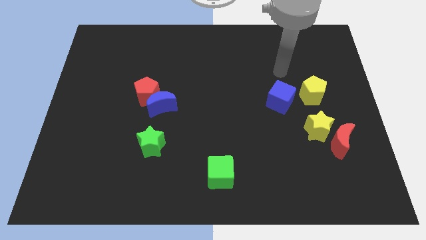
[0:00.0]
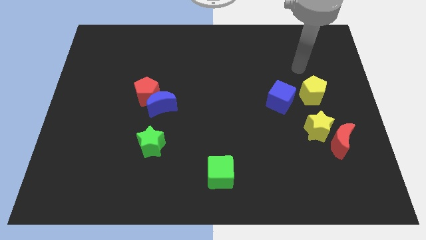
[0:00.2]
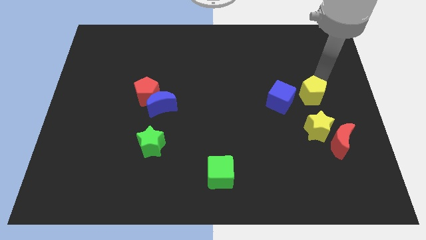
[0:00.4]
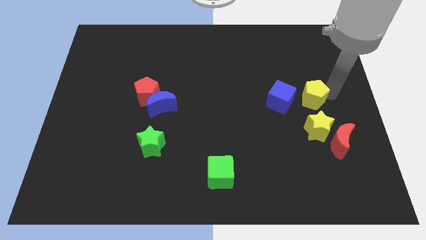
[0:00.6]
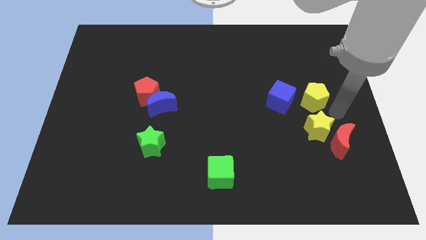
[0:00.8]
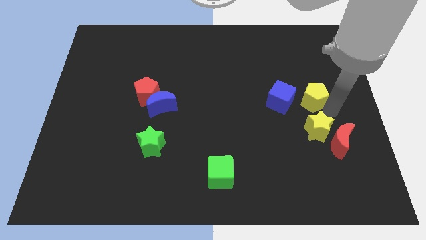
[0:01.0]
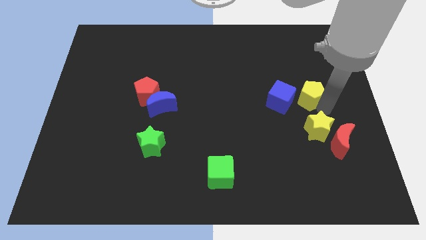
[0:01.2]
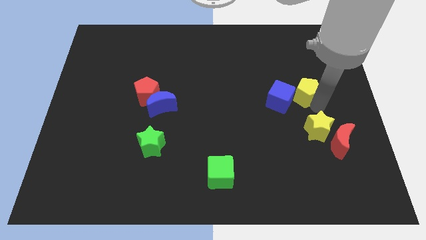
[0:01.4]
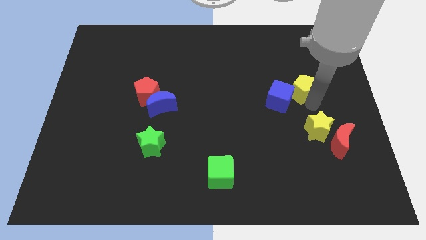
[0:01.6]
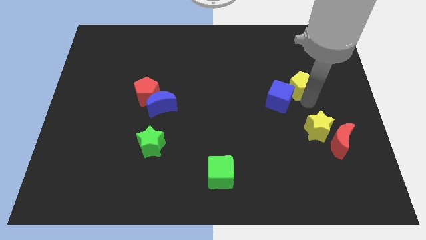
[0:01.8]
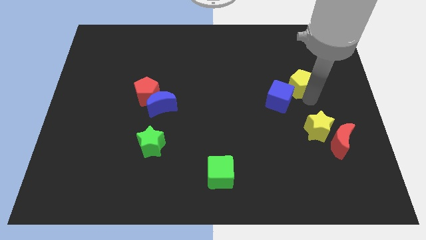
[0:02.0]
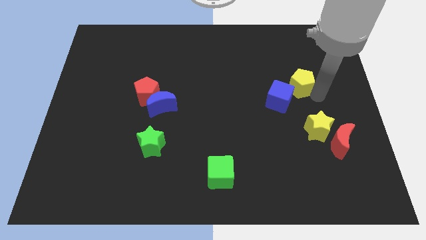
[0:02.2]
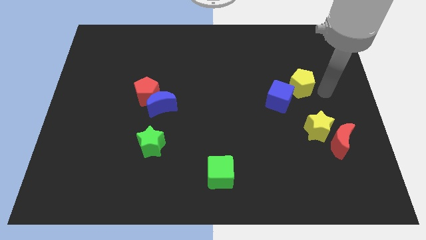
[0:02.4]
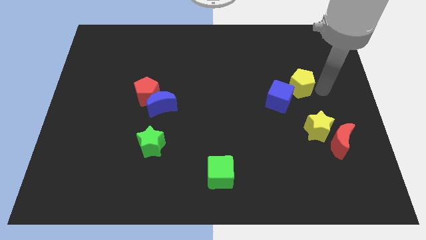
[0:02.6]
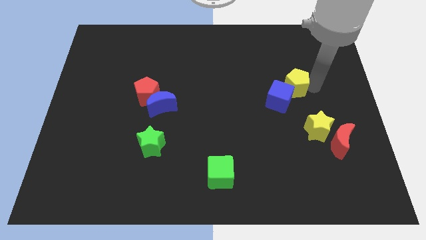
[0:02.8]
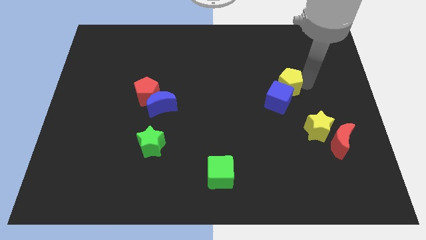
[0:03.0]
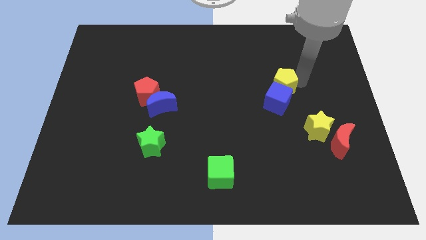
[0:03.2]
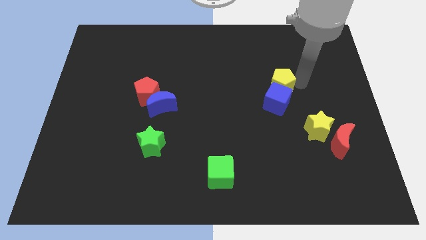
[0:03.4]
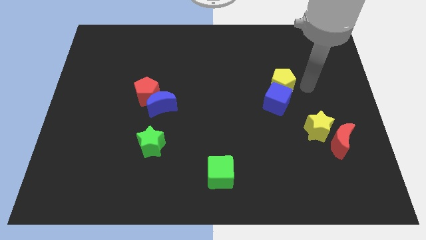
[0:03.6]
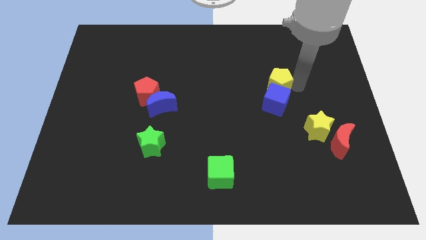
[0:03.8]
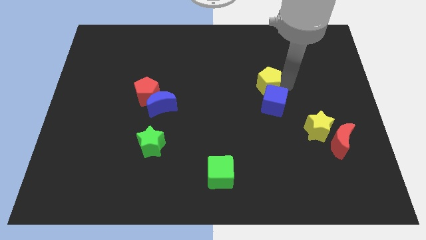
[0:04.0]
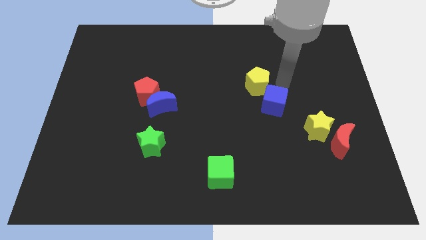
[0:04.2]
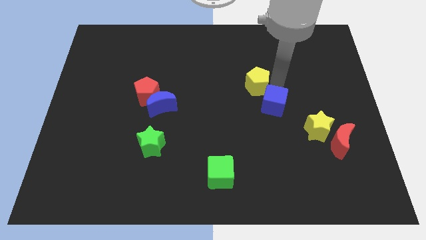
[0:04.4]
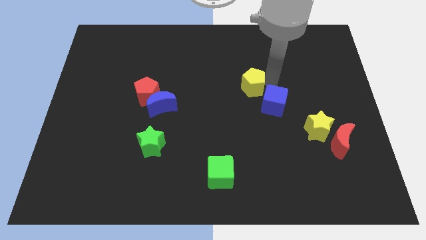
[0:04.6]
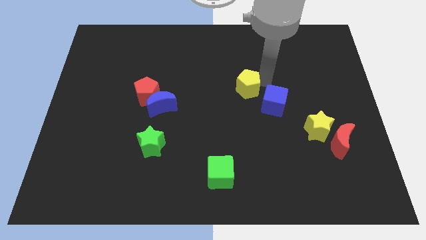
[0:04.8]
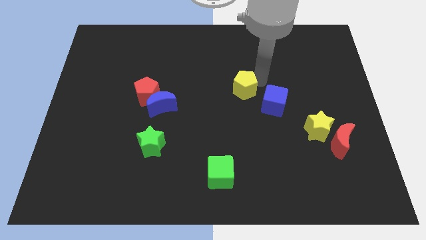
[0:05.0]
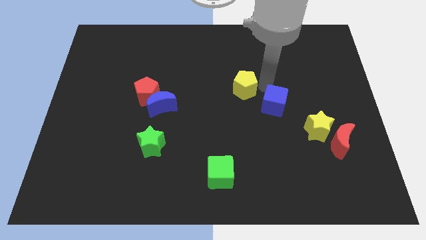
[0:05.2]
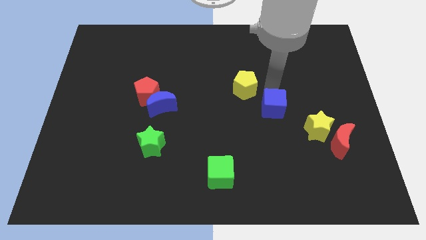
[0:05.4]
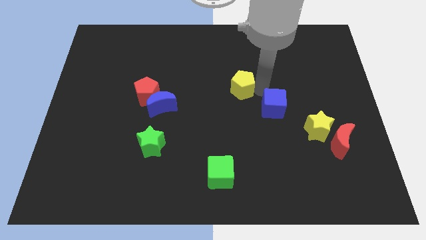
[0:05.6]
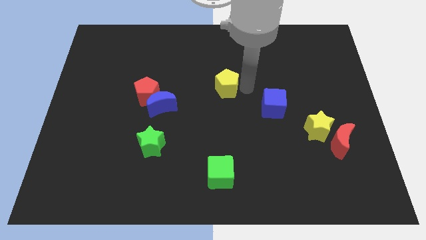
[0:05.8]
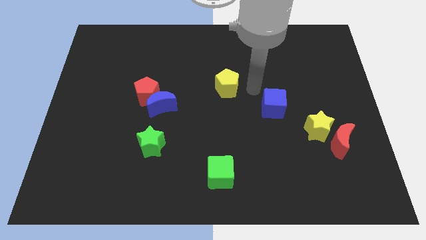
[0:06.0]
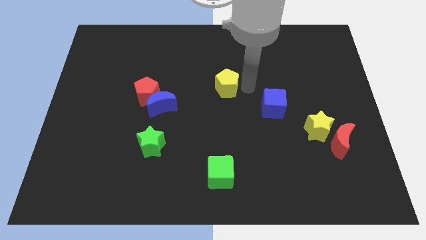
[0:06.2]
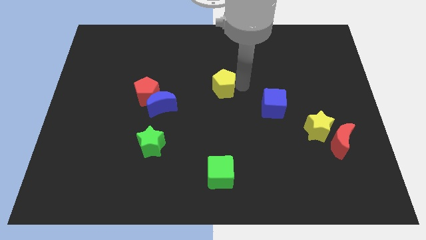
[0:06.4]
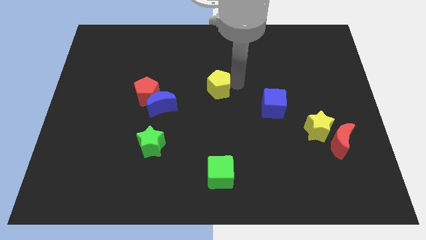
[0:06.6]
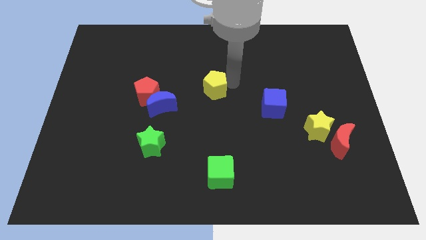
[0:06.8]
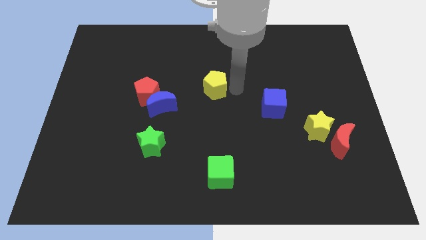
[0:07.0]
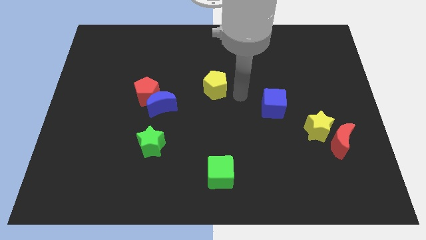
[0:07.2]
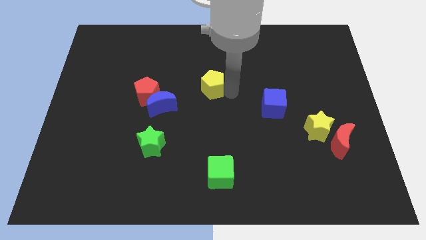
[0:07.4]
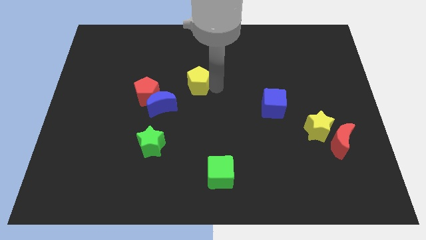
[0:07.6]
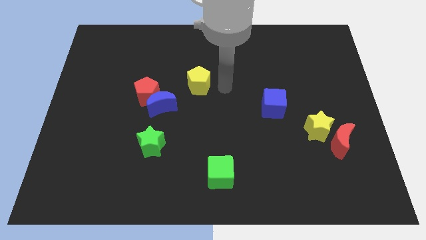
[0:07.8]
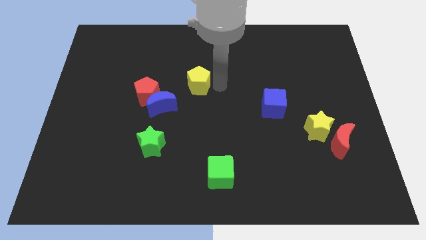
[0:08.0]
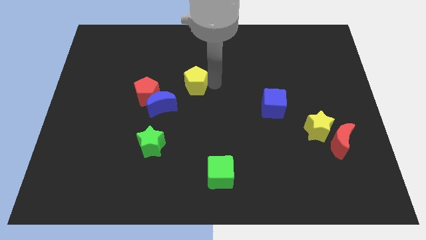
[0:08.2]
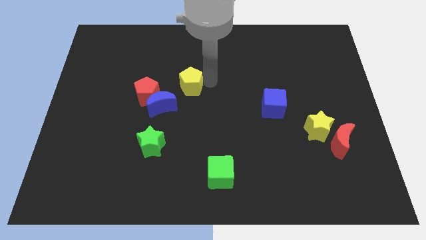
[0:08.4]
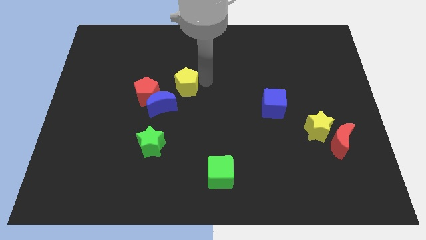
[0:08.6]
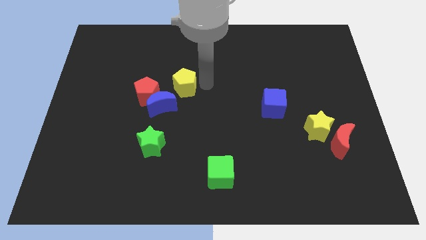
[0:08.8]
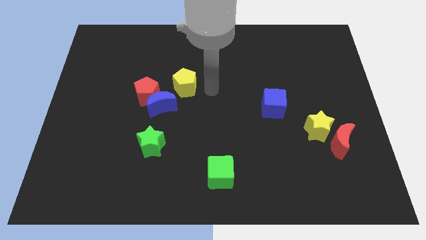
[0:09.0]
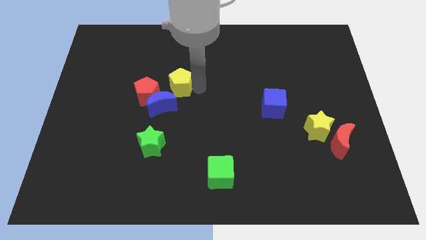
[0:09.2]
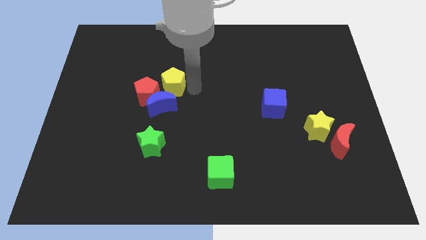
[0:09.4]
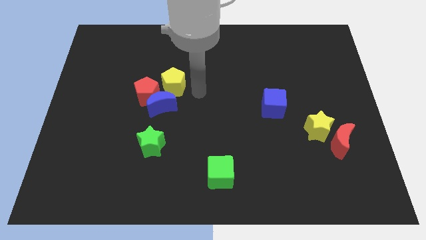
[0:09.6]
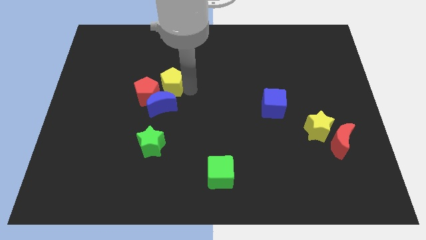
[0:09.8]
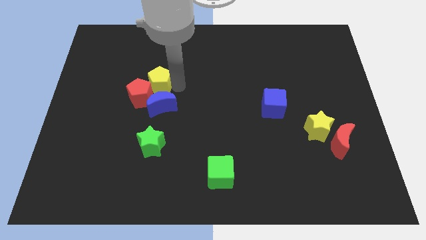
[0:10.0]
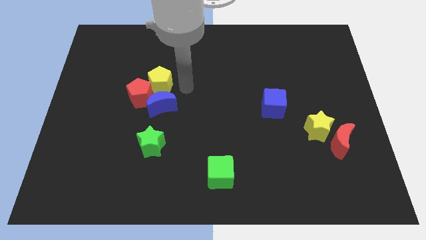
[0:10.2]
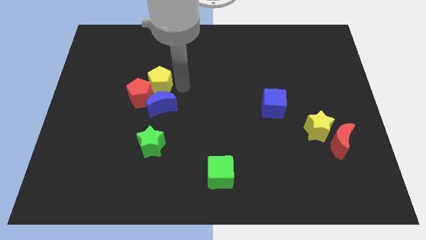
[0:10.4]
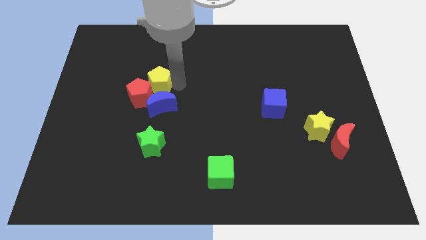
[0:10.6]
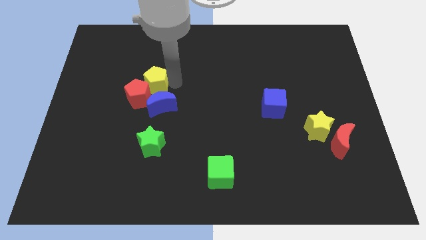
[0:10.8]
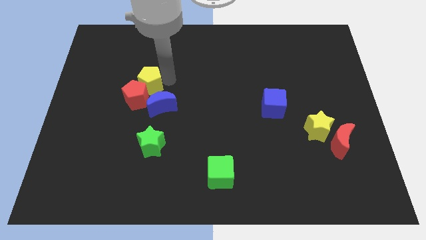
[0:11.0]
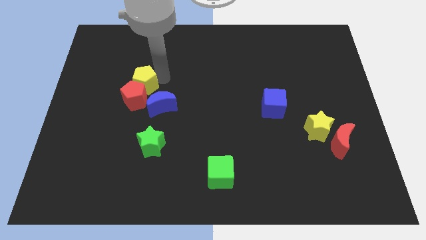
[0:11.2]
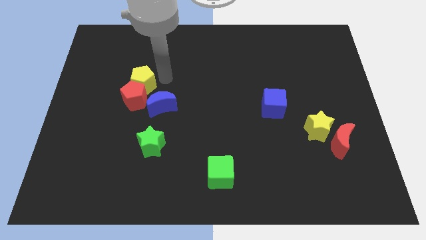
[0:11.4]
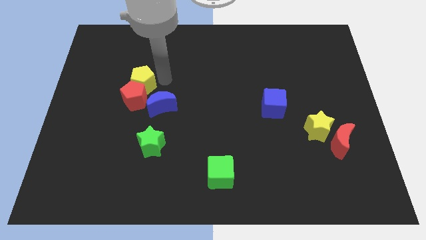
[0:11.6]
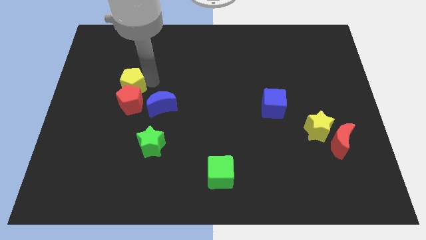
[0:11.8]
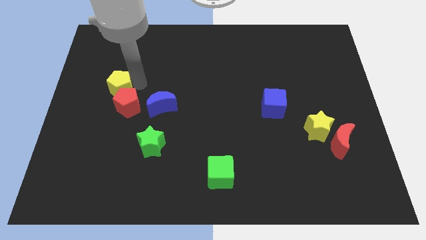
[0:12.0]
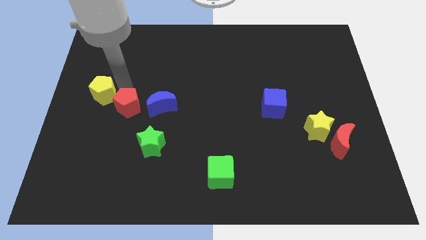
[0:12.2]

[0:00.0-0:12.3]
slide the yellow pentagon to the left side of the board
